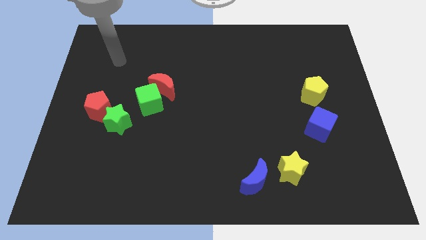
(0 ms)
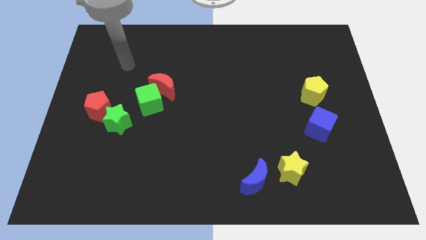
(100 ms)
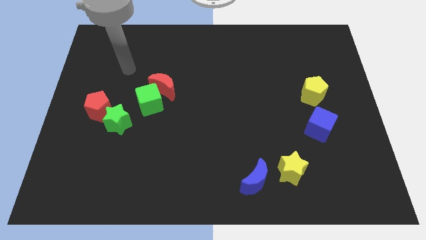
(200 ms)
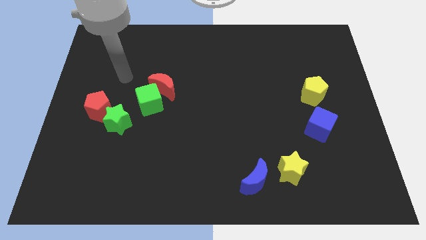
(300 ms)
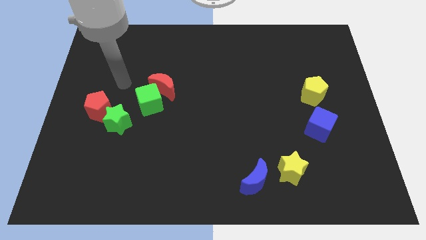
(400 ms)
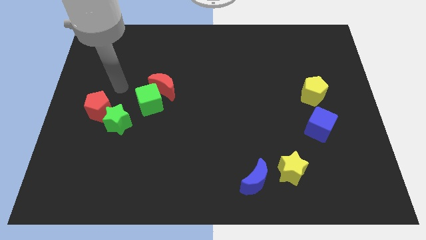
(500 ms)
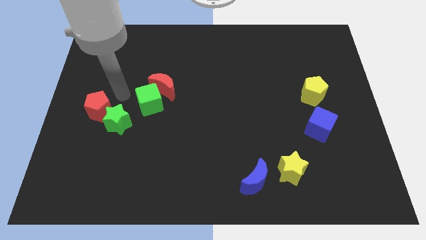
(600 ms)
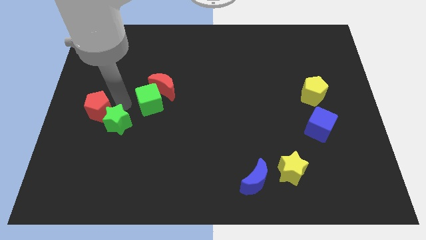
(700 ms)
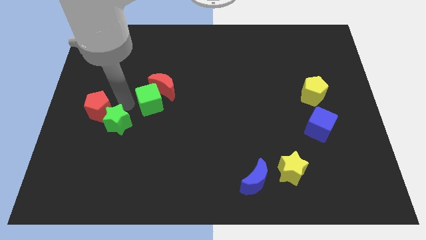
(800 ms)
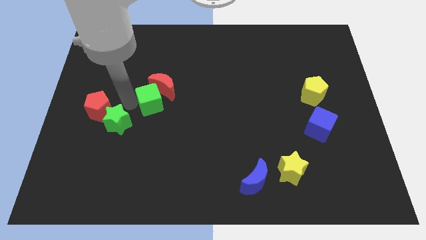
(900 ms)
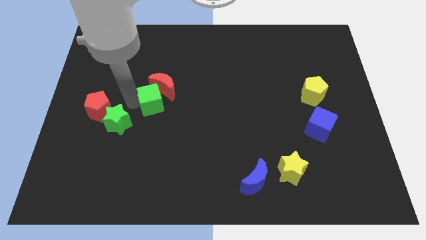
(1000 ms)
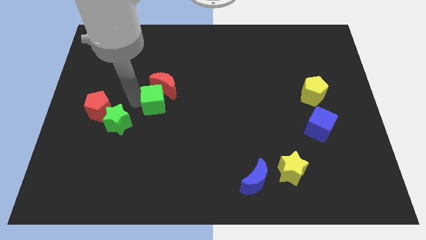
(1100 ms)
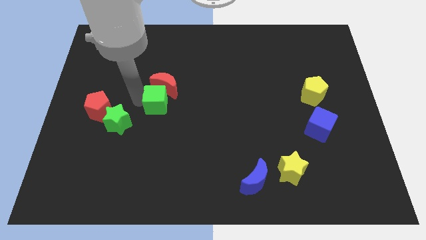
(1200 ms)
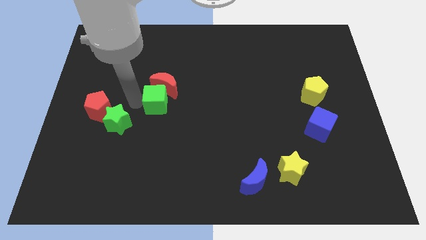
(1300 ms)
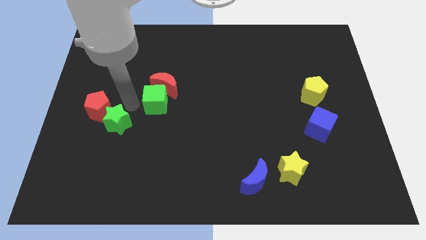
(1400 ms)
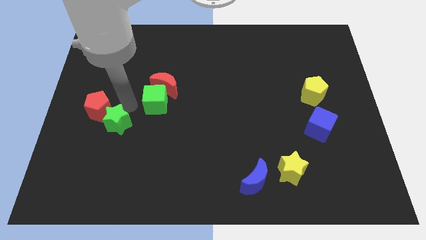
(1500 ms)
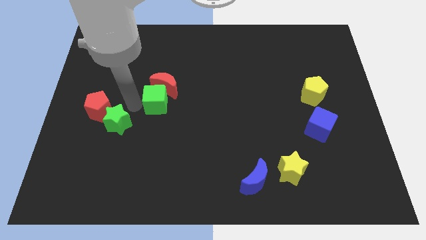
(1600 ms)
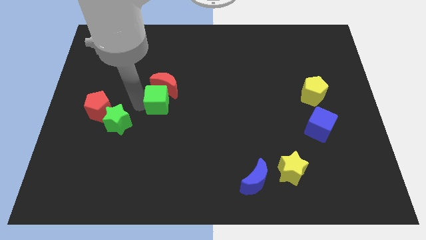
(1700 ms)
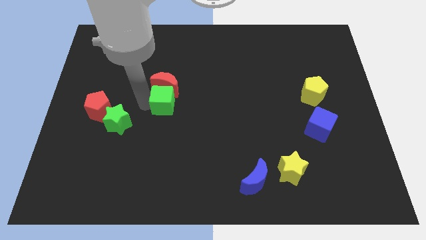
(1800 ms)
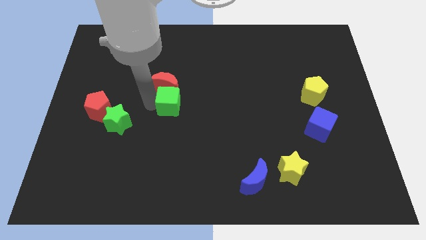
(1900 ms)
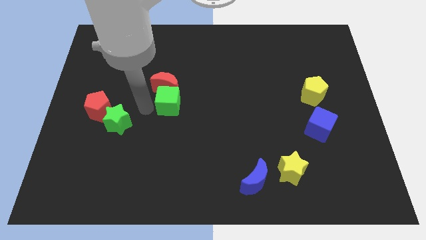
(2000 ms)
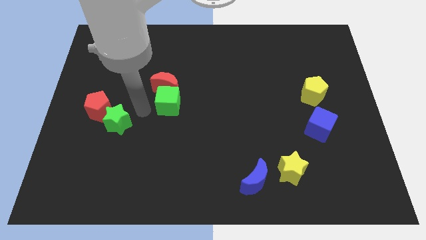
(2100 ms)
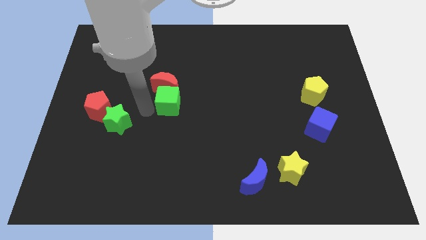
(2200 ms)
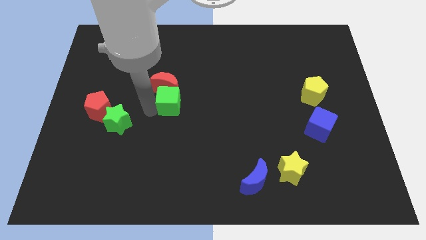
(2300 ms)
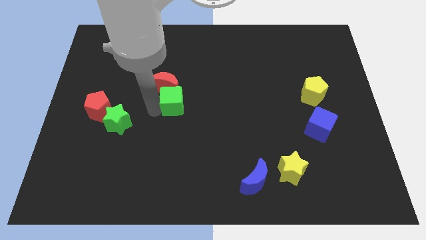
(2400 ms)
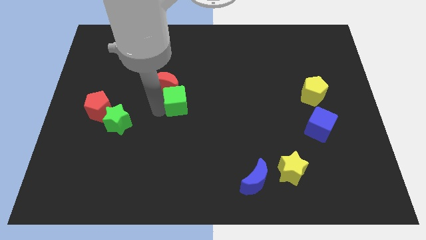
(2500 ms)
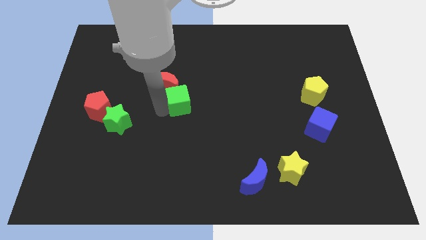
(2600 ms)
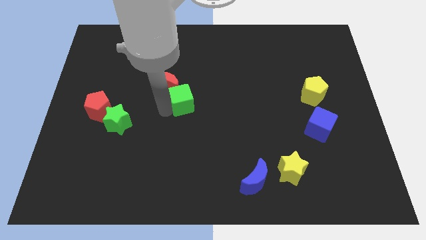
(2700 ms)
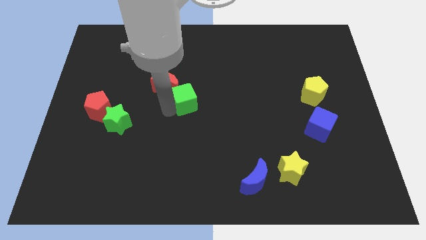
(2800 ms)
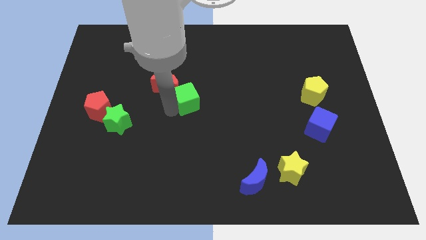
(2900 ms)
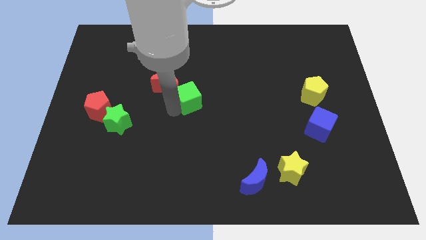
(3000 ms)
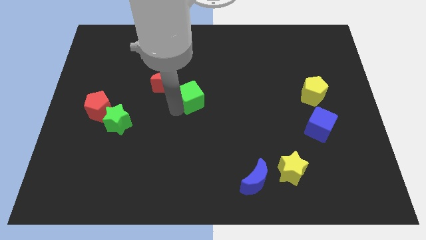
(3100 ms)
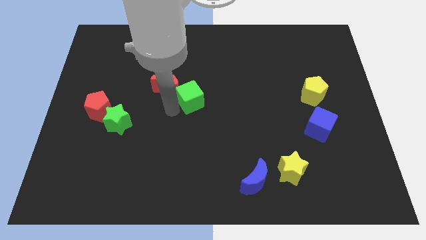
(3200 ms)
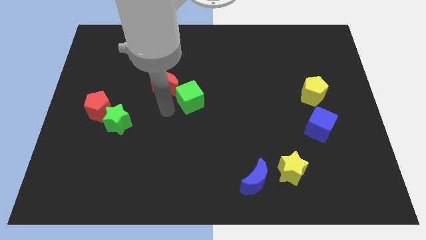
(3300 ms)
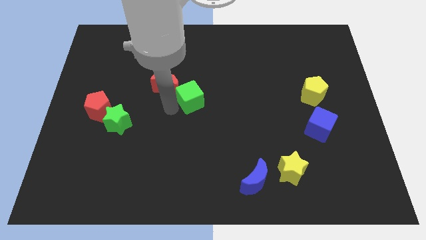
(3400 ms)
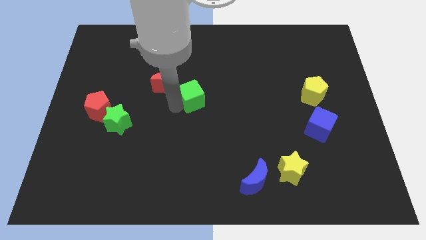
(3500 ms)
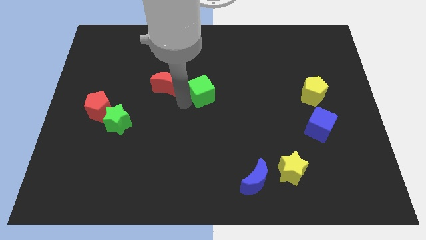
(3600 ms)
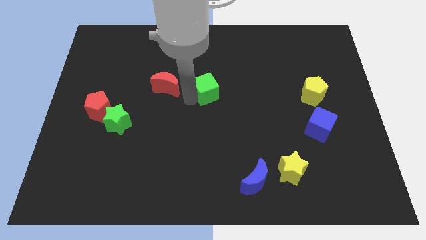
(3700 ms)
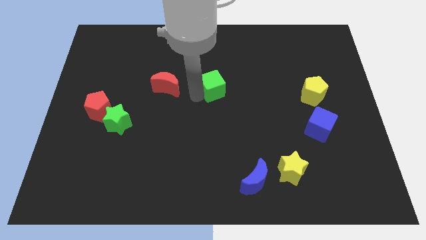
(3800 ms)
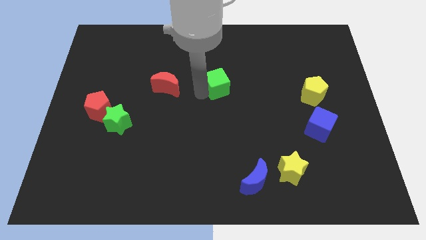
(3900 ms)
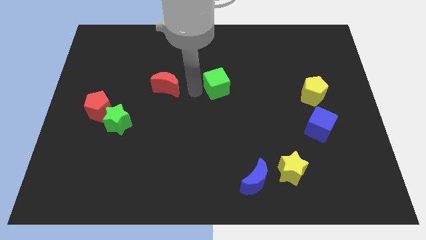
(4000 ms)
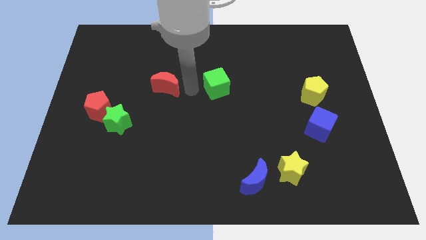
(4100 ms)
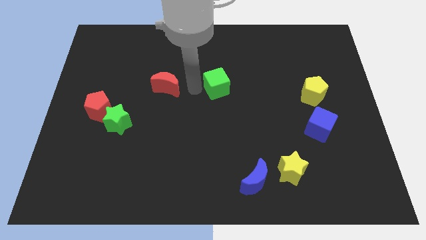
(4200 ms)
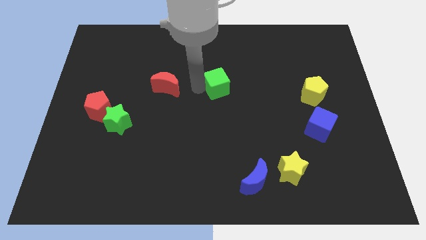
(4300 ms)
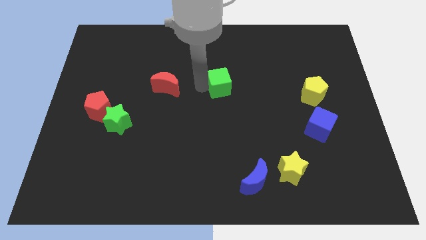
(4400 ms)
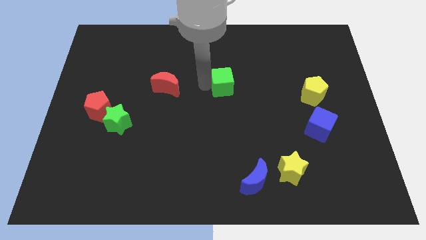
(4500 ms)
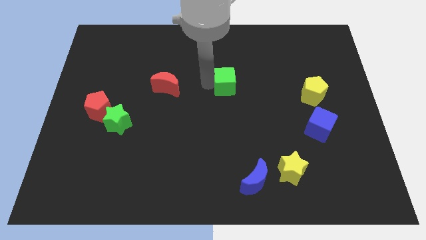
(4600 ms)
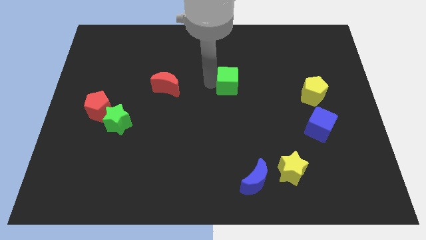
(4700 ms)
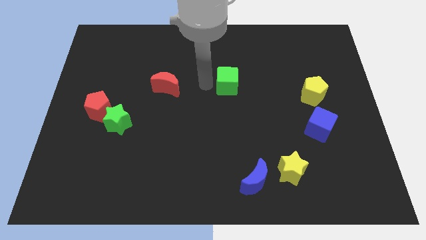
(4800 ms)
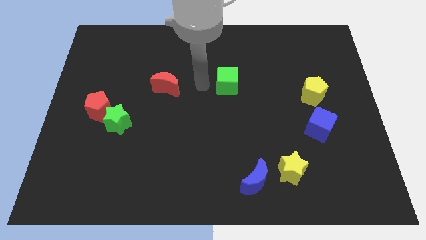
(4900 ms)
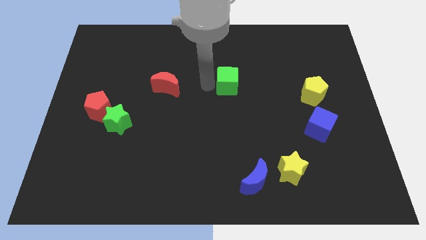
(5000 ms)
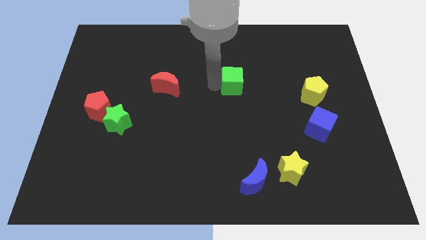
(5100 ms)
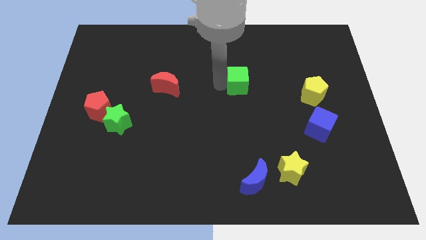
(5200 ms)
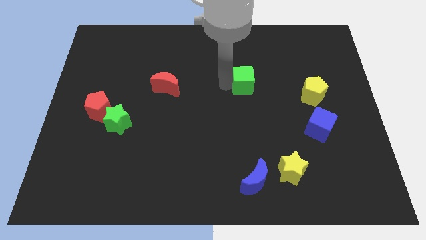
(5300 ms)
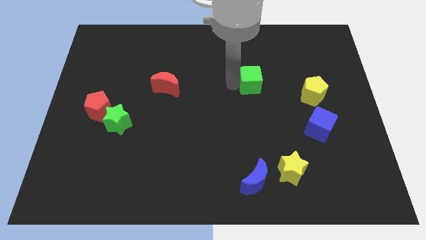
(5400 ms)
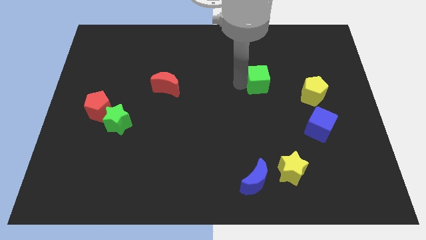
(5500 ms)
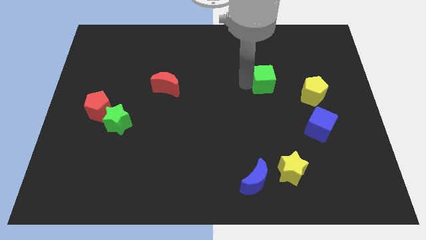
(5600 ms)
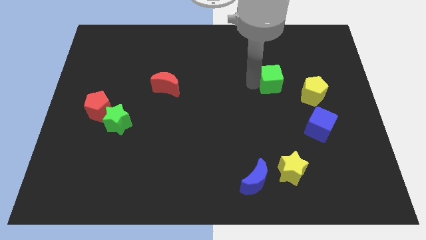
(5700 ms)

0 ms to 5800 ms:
push the green cube diagonally up and to the left of the yellow pentagon
